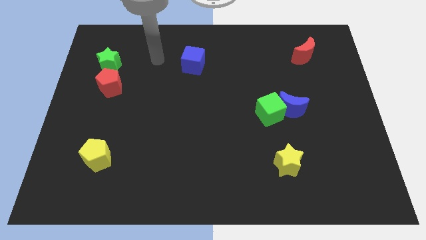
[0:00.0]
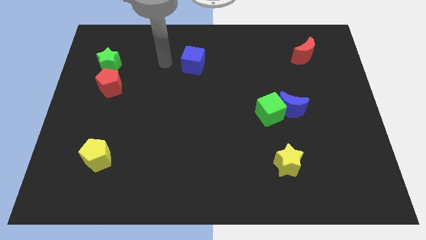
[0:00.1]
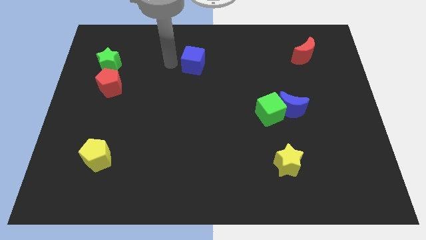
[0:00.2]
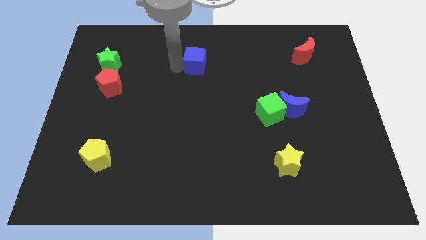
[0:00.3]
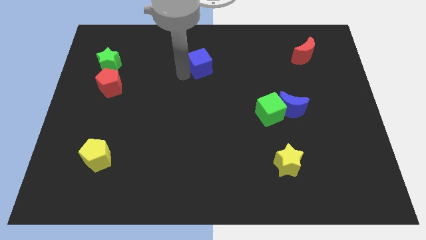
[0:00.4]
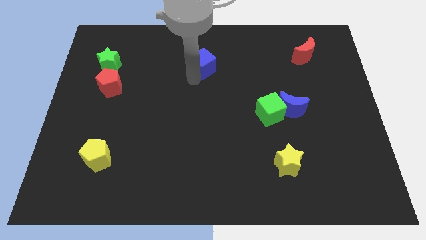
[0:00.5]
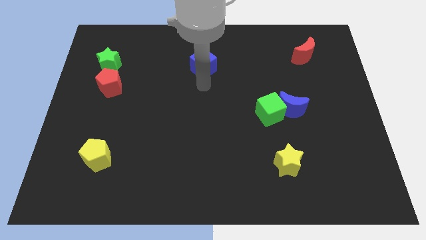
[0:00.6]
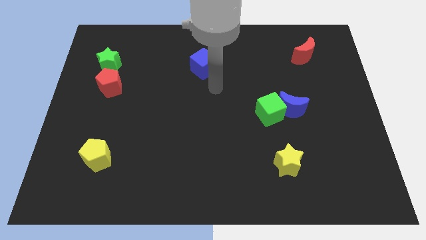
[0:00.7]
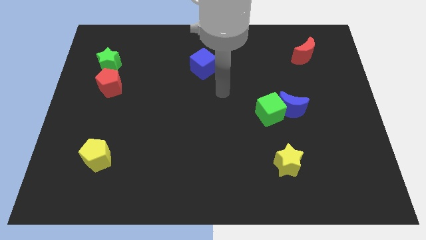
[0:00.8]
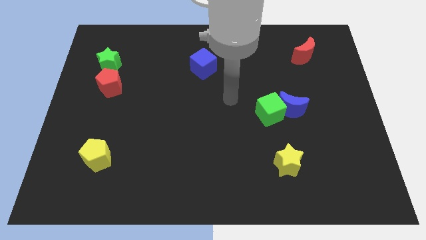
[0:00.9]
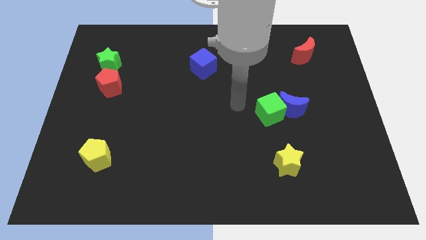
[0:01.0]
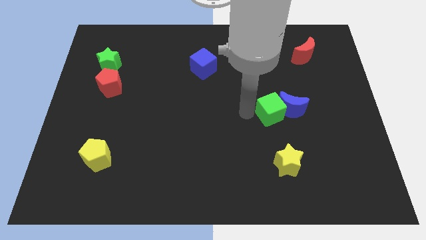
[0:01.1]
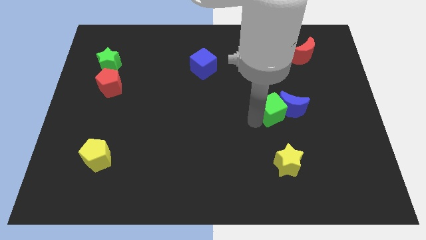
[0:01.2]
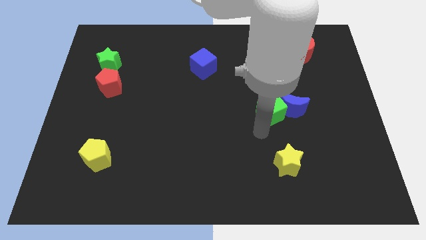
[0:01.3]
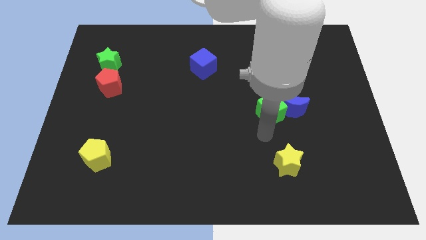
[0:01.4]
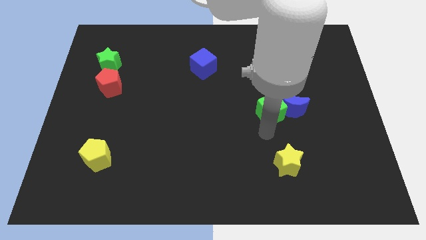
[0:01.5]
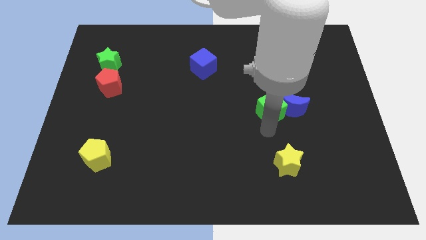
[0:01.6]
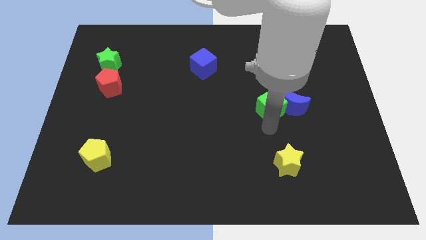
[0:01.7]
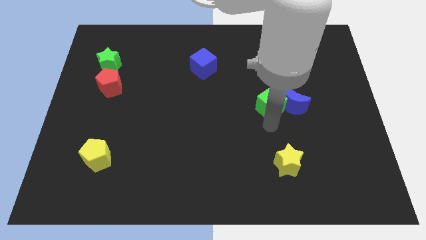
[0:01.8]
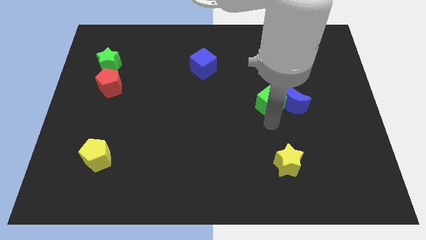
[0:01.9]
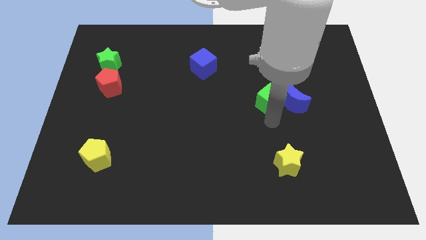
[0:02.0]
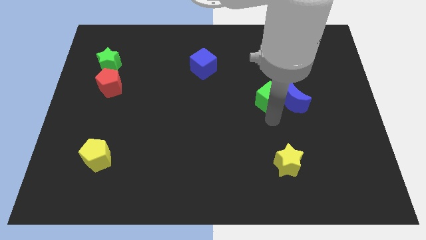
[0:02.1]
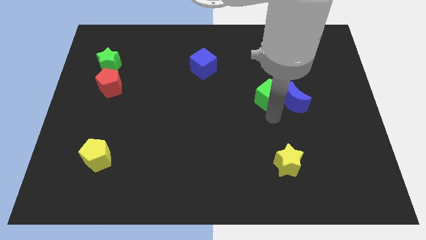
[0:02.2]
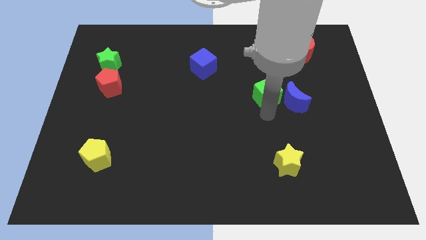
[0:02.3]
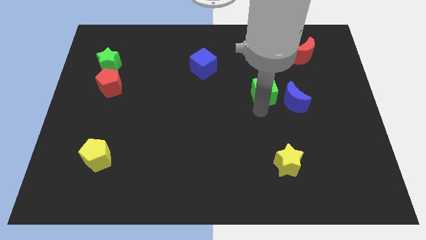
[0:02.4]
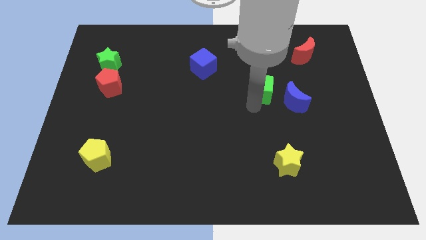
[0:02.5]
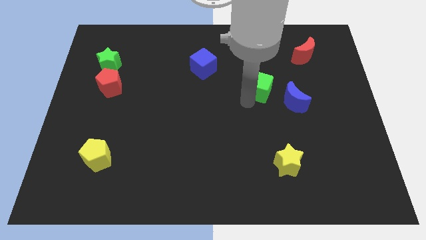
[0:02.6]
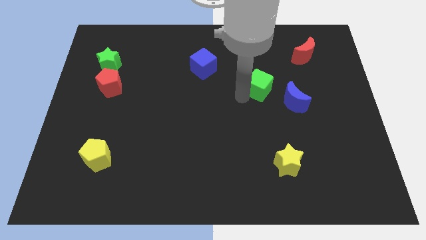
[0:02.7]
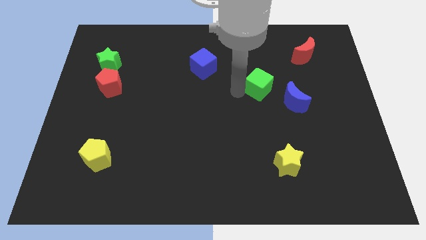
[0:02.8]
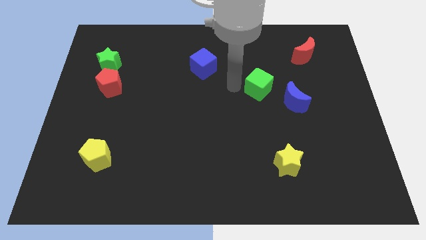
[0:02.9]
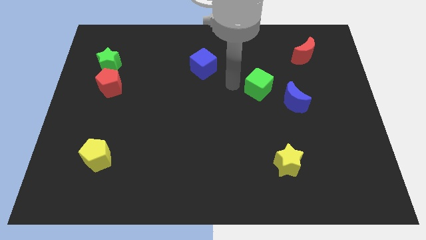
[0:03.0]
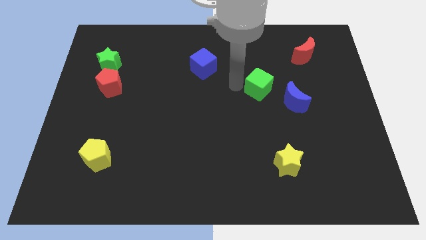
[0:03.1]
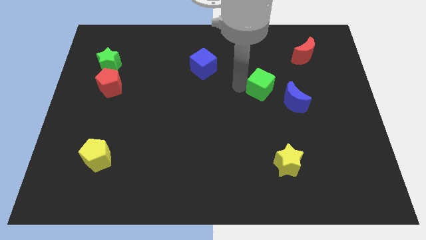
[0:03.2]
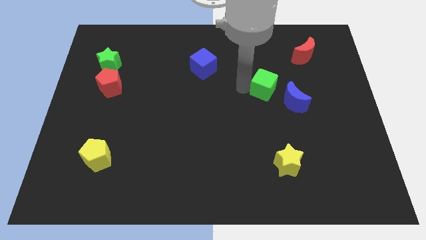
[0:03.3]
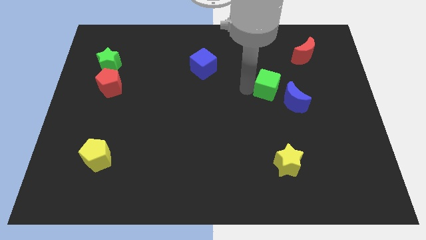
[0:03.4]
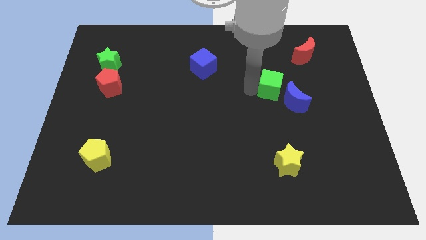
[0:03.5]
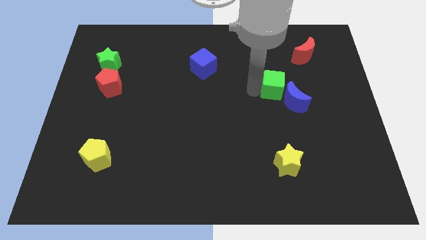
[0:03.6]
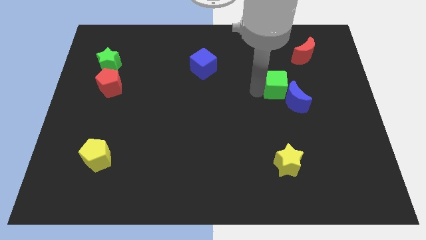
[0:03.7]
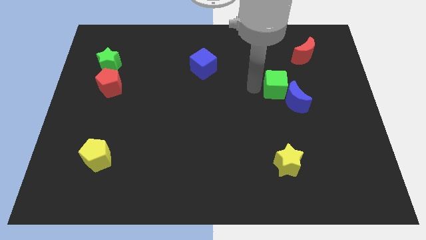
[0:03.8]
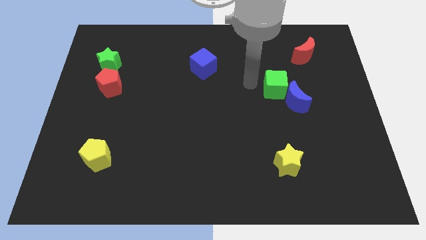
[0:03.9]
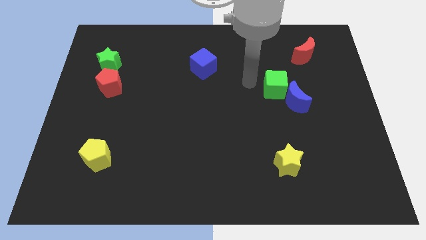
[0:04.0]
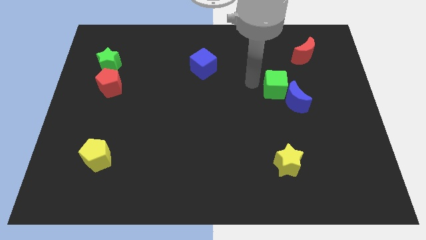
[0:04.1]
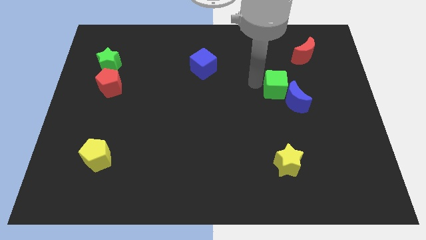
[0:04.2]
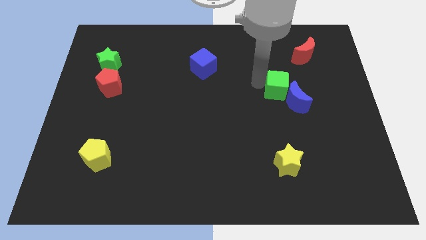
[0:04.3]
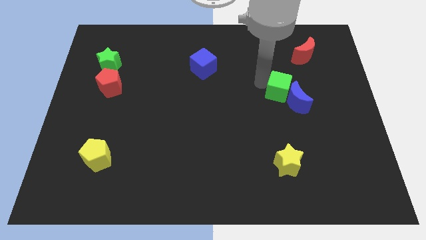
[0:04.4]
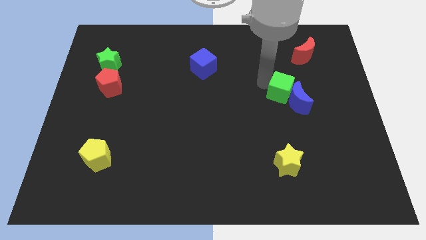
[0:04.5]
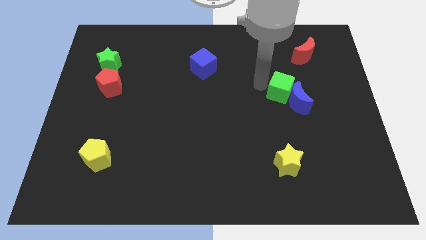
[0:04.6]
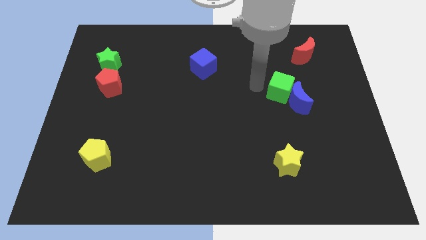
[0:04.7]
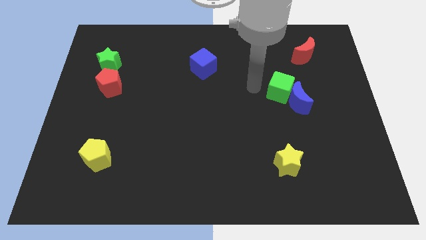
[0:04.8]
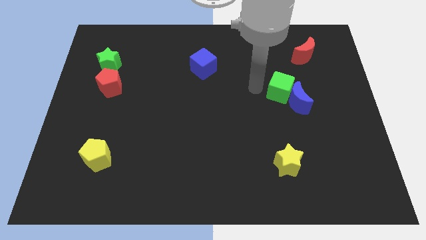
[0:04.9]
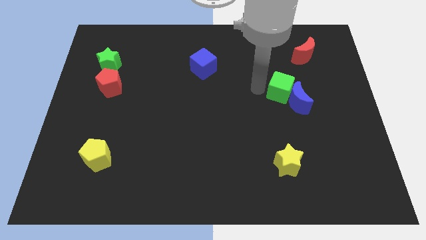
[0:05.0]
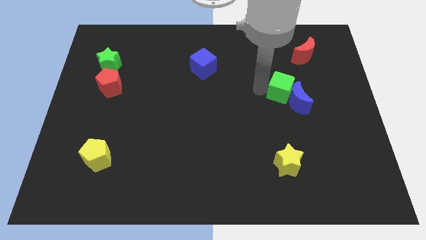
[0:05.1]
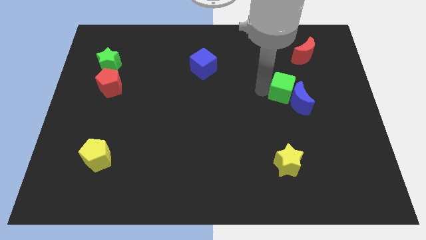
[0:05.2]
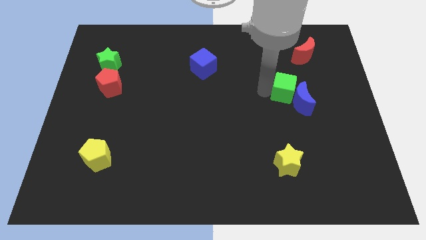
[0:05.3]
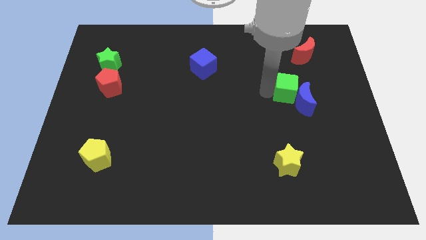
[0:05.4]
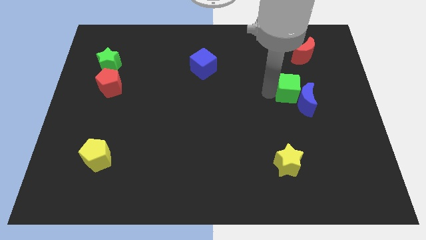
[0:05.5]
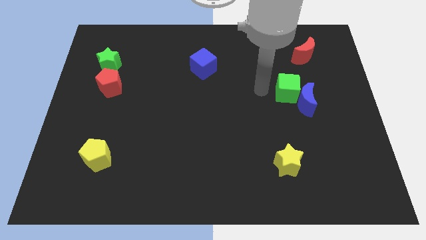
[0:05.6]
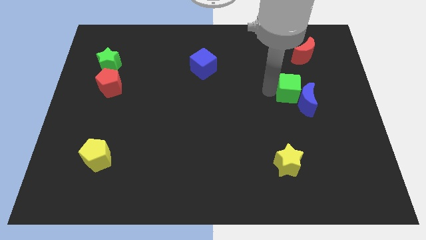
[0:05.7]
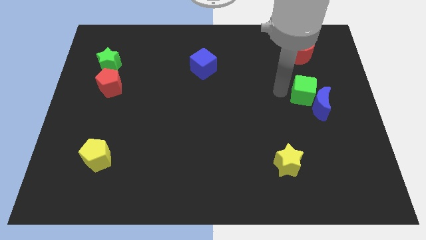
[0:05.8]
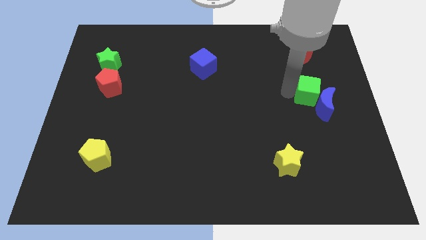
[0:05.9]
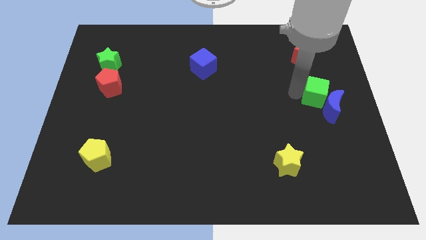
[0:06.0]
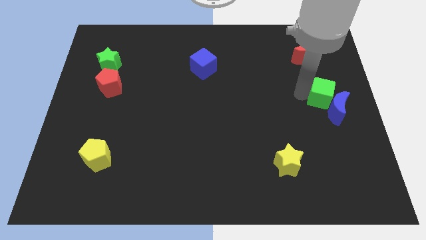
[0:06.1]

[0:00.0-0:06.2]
slide the green cube to the right side of the board
